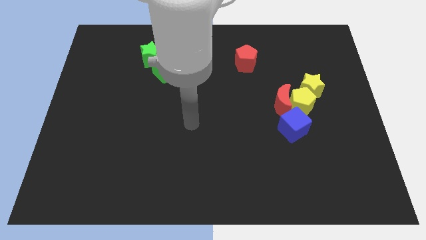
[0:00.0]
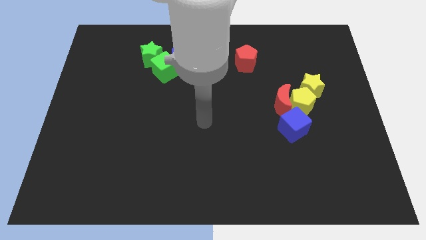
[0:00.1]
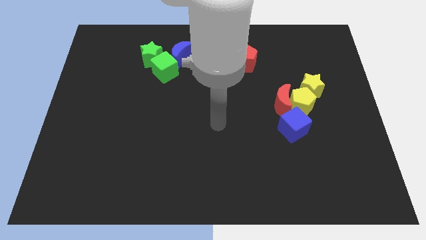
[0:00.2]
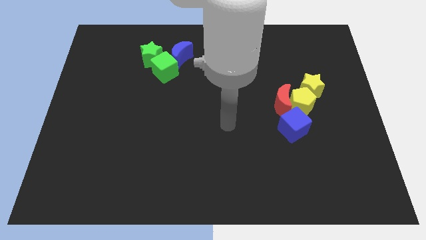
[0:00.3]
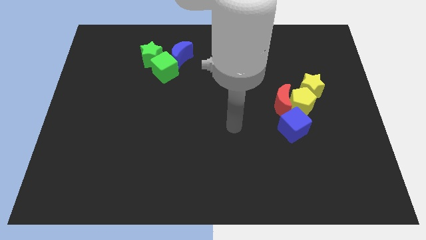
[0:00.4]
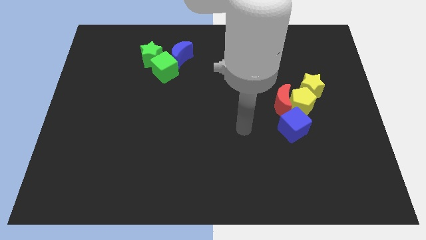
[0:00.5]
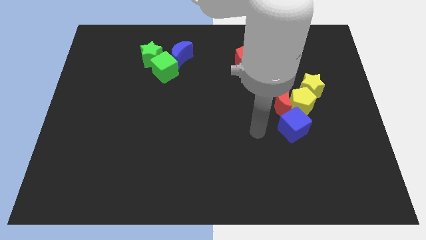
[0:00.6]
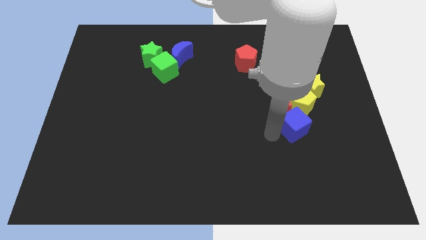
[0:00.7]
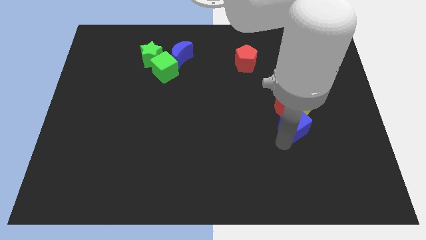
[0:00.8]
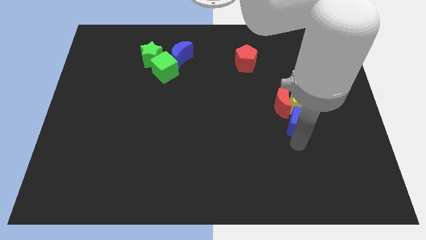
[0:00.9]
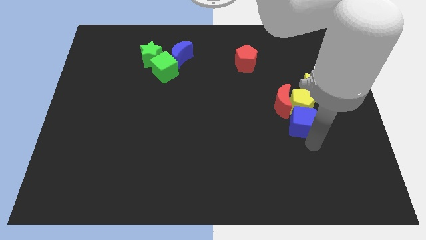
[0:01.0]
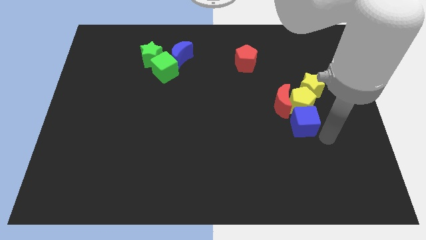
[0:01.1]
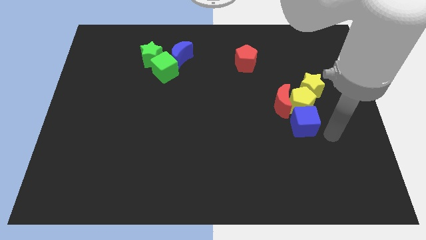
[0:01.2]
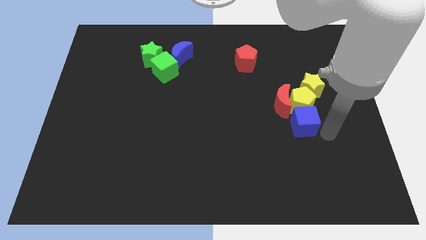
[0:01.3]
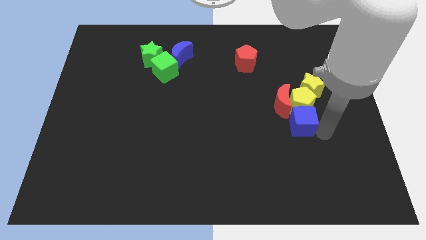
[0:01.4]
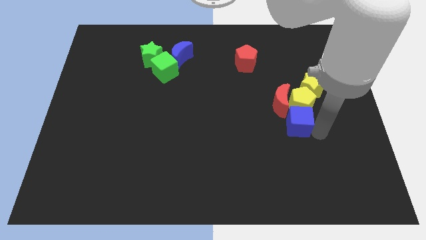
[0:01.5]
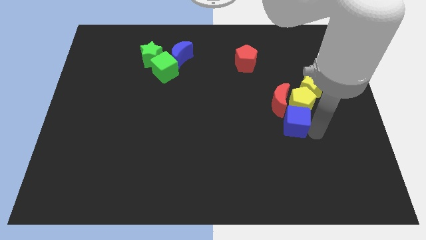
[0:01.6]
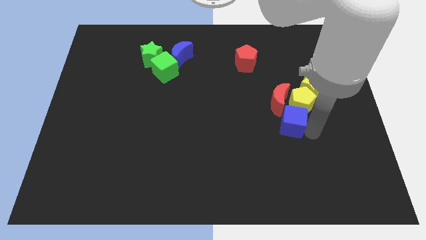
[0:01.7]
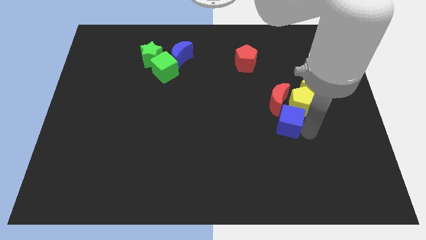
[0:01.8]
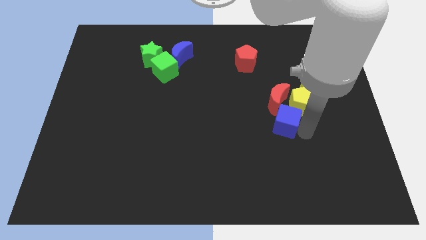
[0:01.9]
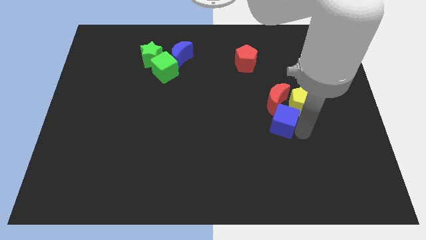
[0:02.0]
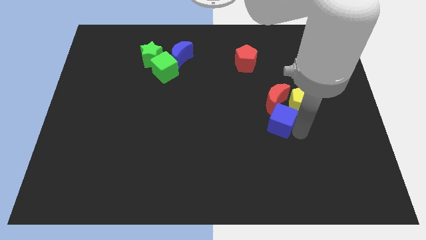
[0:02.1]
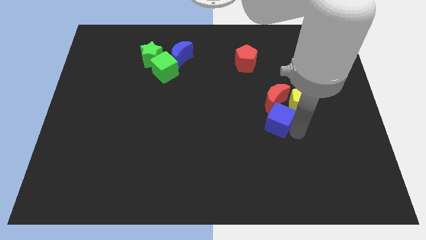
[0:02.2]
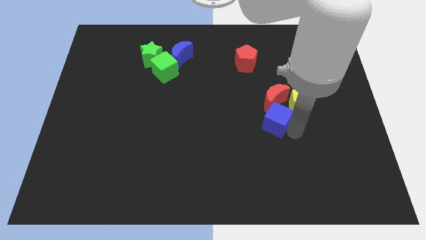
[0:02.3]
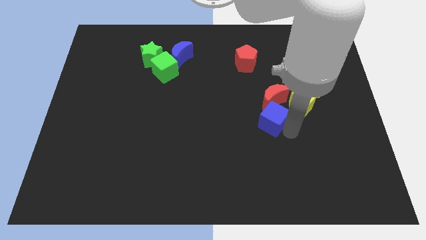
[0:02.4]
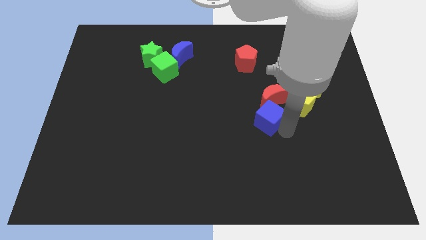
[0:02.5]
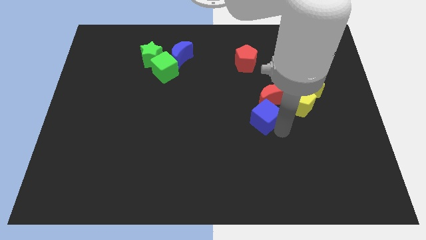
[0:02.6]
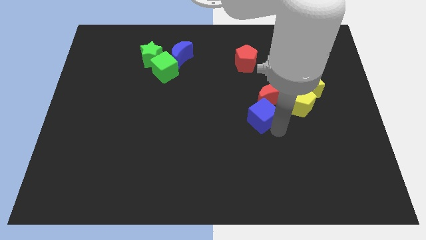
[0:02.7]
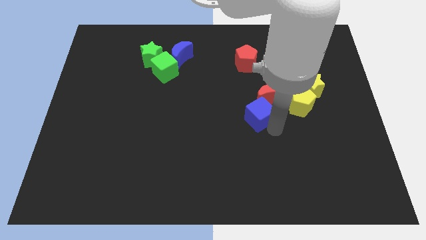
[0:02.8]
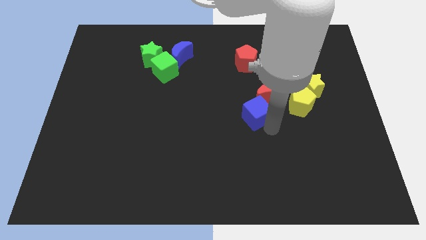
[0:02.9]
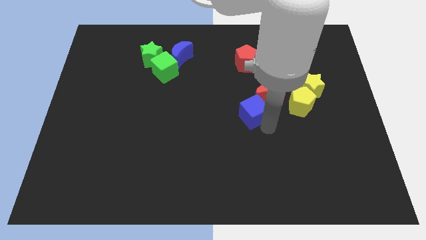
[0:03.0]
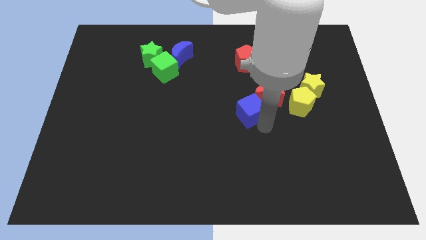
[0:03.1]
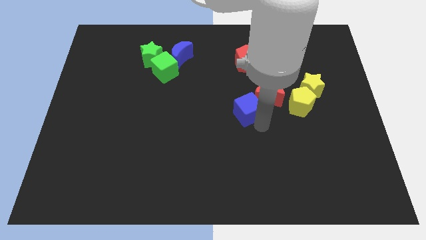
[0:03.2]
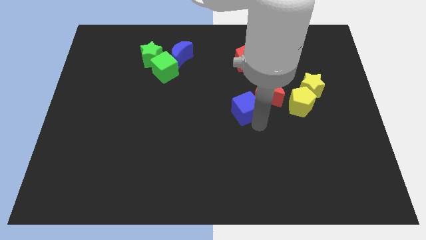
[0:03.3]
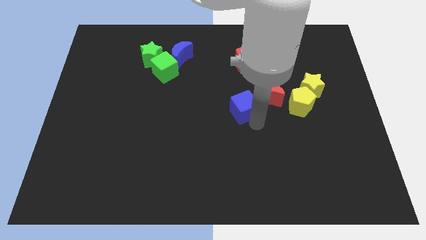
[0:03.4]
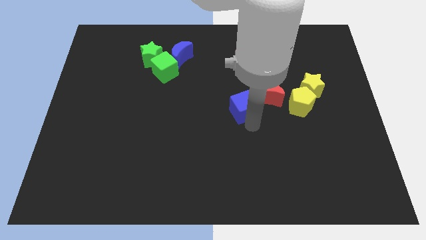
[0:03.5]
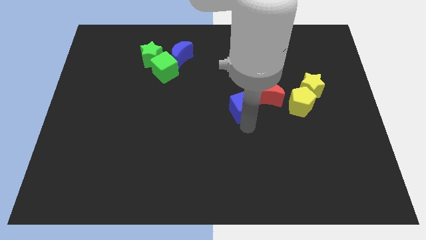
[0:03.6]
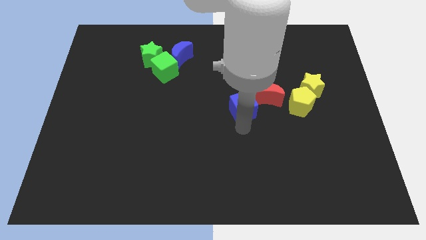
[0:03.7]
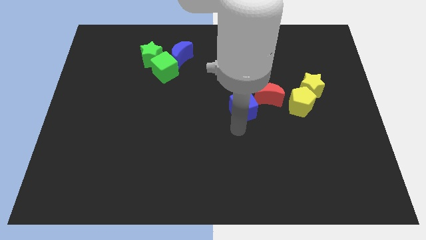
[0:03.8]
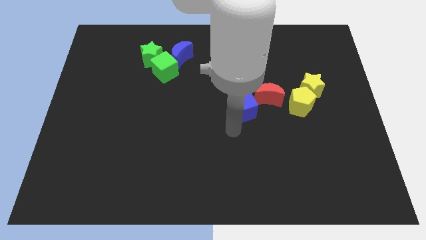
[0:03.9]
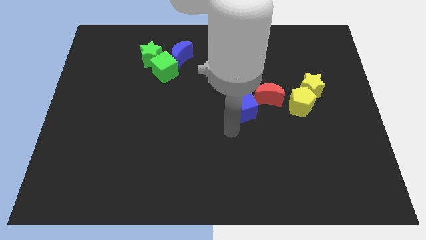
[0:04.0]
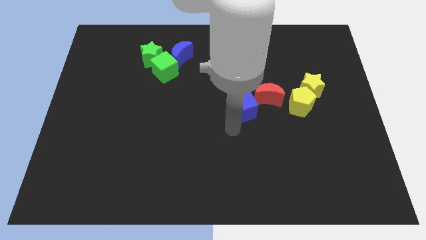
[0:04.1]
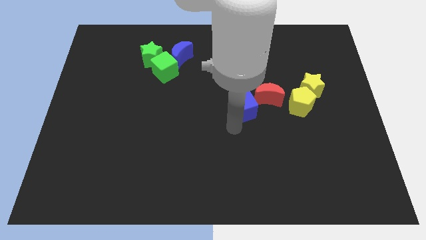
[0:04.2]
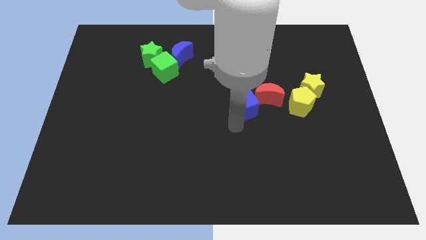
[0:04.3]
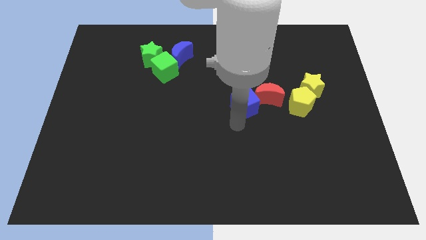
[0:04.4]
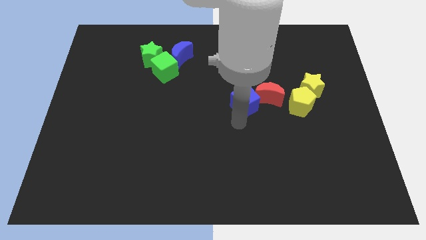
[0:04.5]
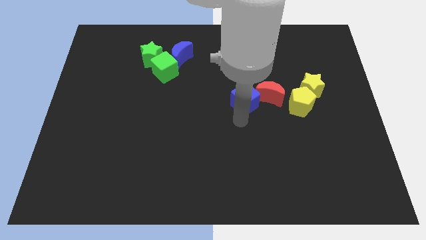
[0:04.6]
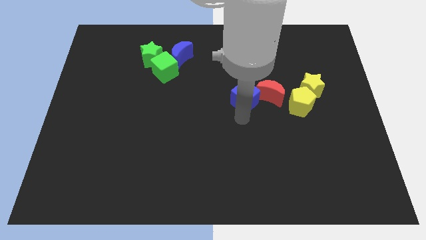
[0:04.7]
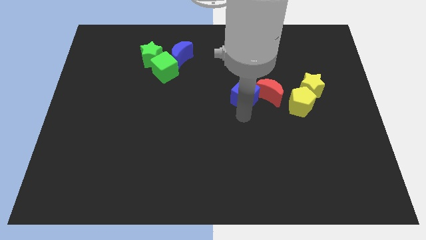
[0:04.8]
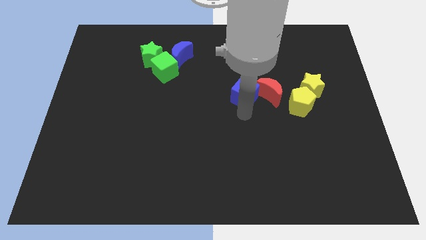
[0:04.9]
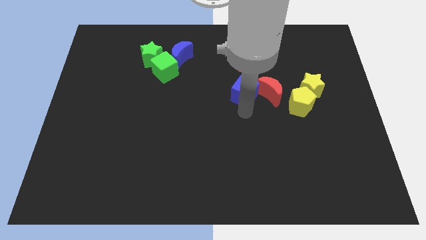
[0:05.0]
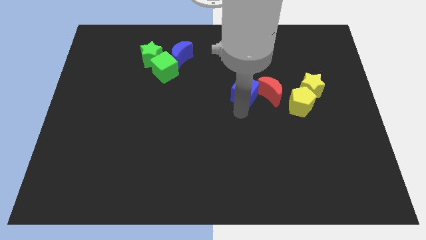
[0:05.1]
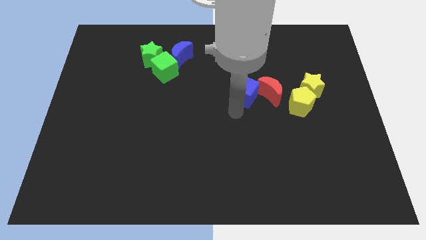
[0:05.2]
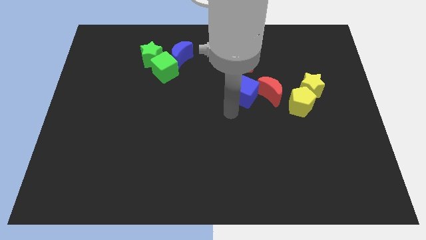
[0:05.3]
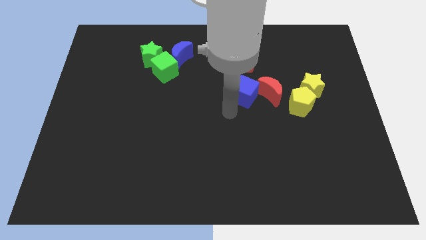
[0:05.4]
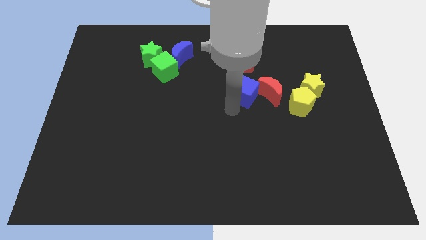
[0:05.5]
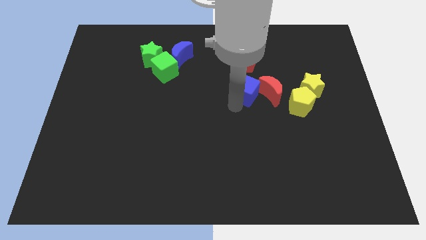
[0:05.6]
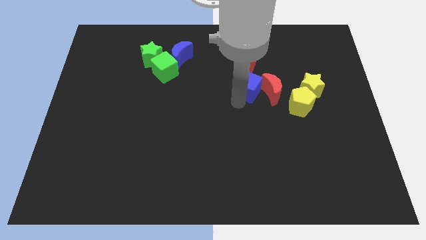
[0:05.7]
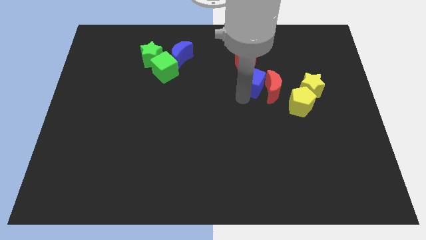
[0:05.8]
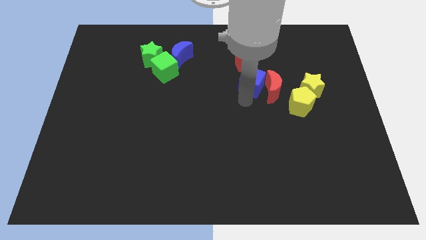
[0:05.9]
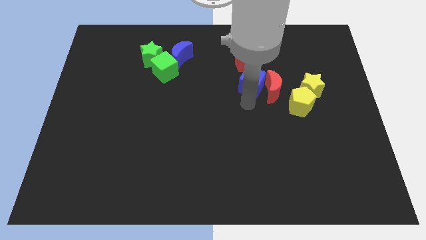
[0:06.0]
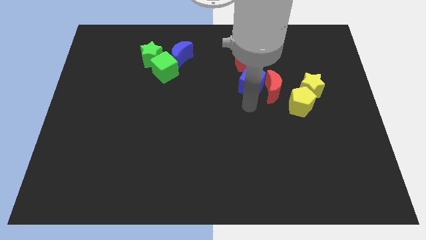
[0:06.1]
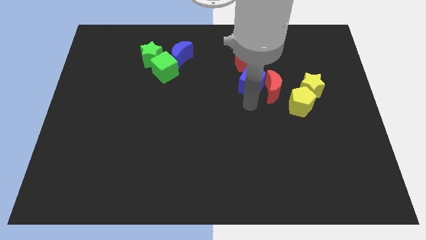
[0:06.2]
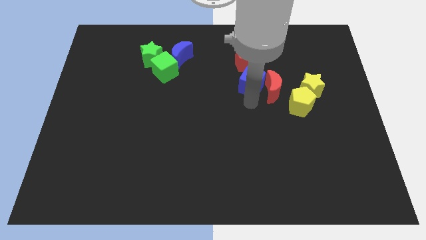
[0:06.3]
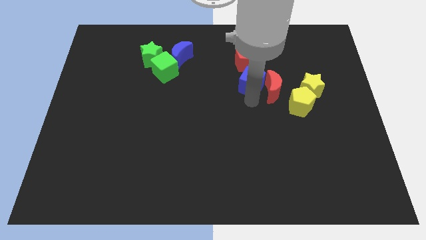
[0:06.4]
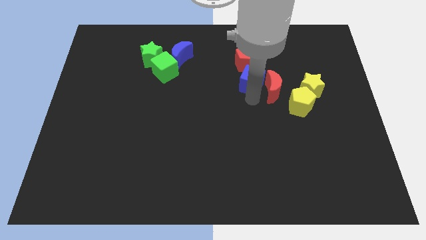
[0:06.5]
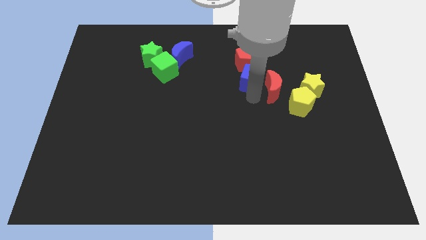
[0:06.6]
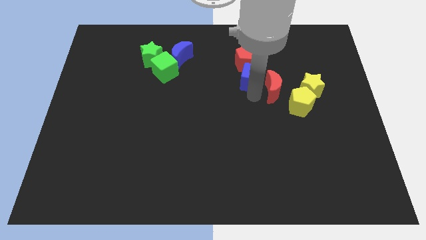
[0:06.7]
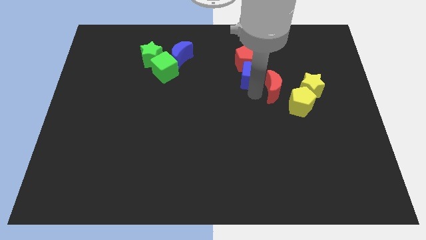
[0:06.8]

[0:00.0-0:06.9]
slide the blue cube close to the red pentagon
